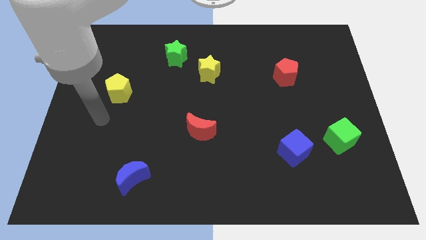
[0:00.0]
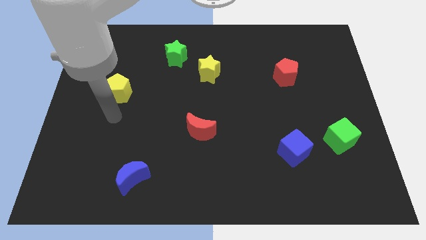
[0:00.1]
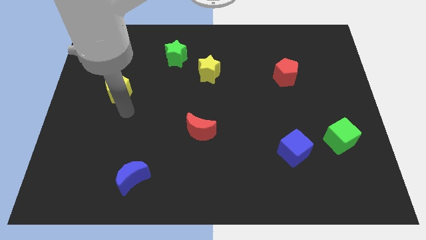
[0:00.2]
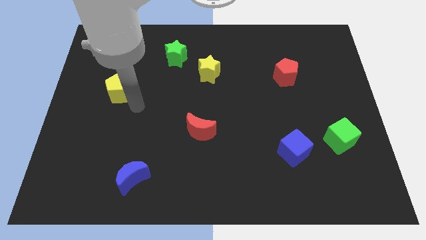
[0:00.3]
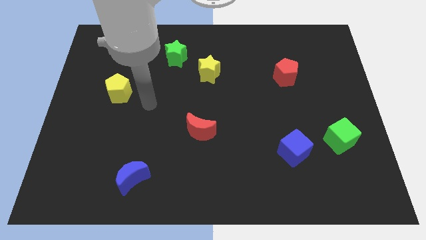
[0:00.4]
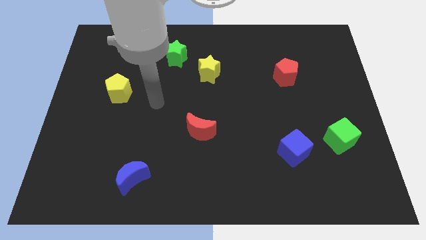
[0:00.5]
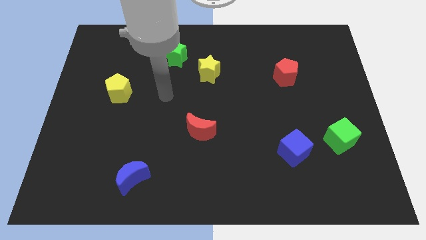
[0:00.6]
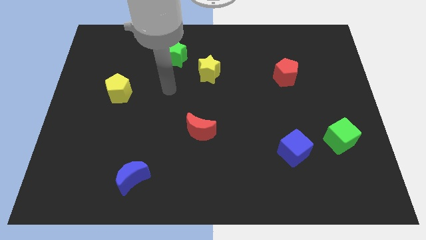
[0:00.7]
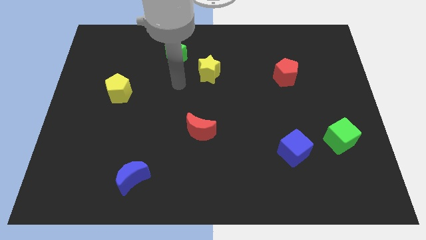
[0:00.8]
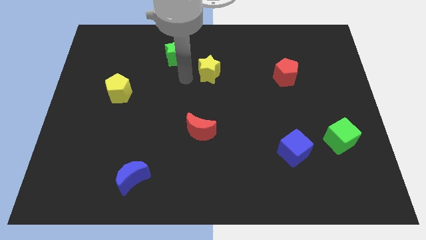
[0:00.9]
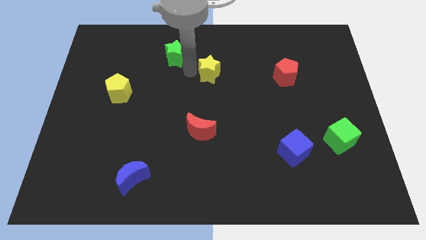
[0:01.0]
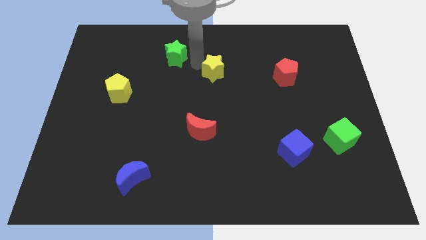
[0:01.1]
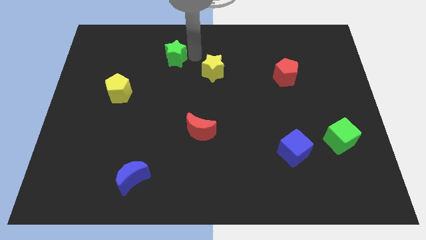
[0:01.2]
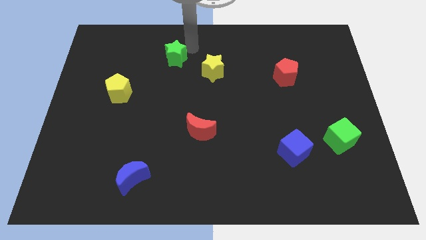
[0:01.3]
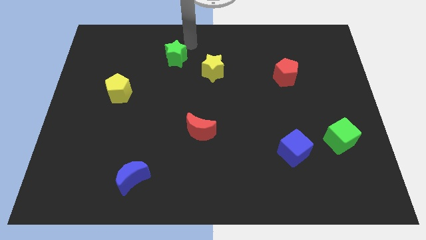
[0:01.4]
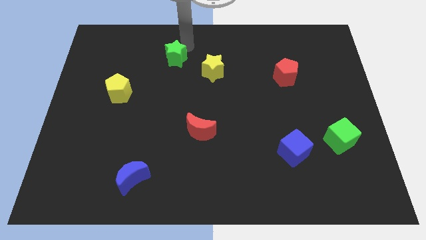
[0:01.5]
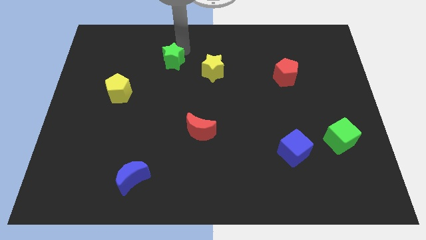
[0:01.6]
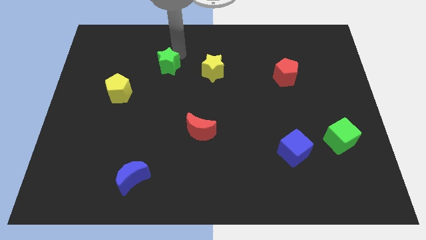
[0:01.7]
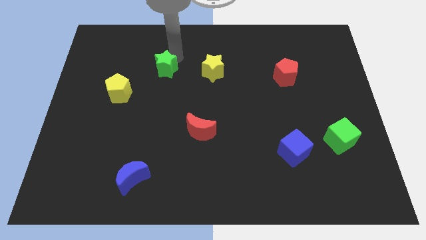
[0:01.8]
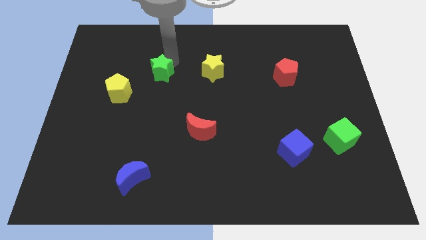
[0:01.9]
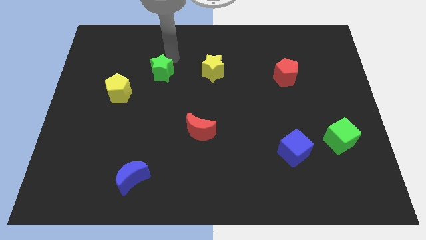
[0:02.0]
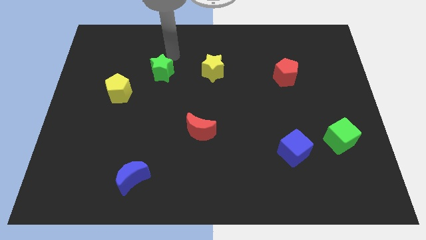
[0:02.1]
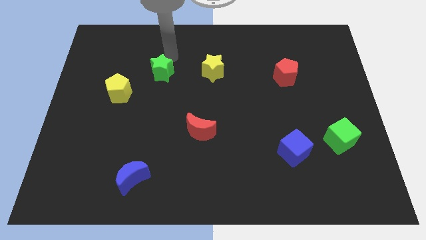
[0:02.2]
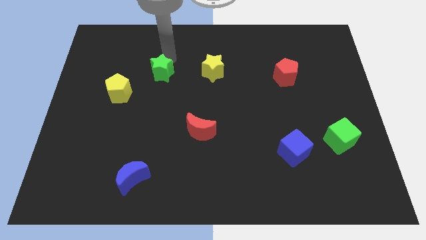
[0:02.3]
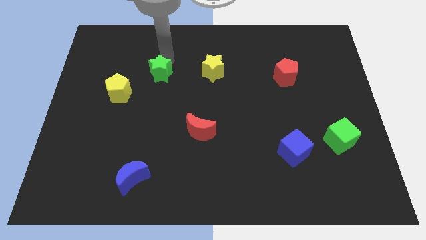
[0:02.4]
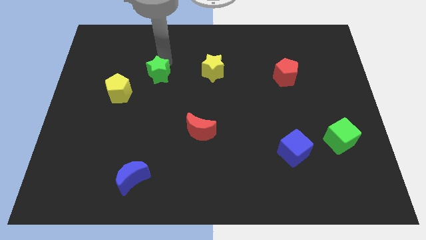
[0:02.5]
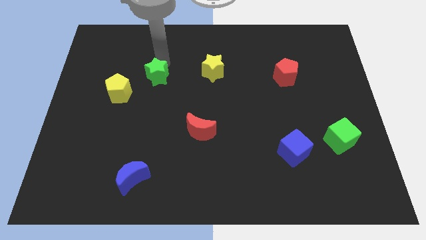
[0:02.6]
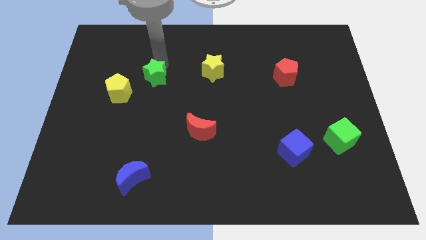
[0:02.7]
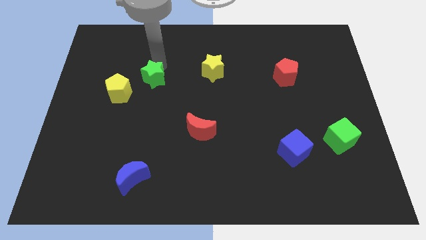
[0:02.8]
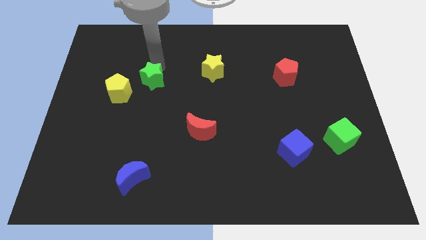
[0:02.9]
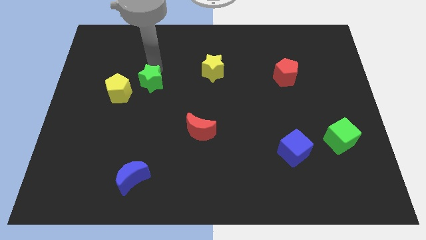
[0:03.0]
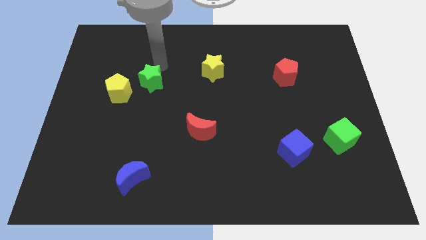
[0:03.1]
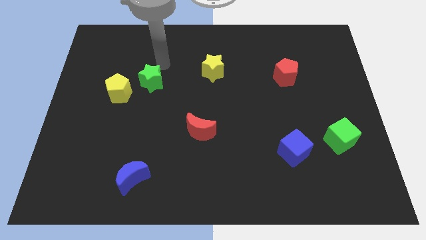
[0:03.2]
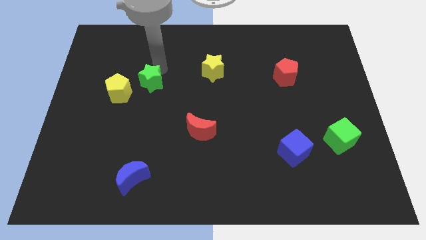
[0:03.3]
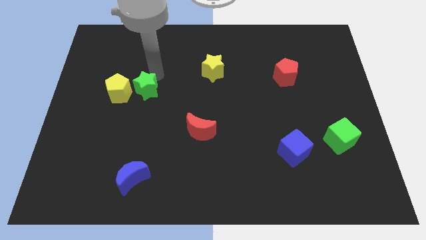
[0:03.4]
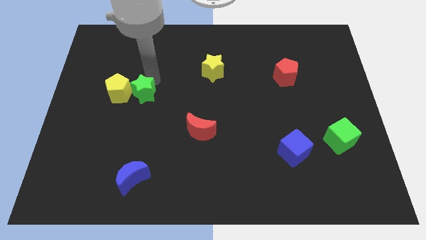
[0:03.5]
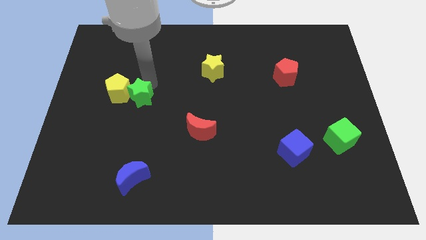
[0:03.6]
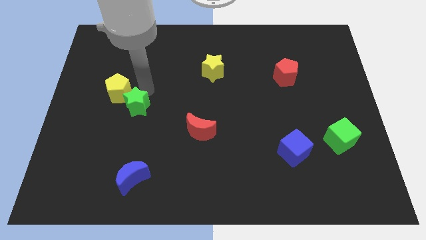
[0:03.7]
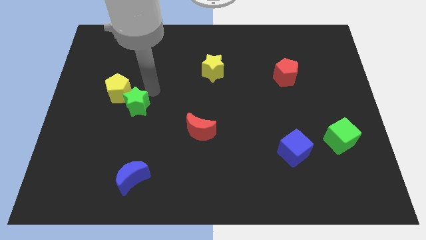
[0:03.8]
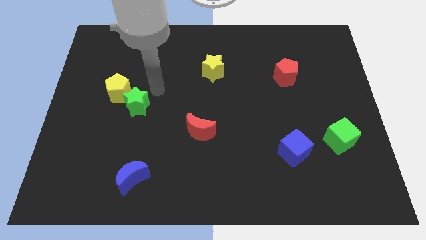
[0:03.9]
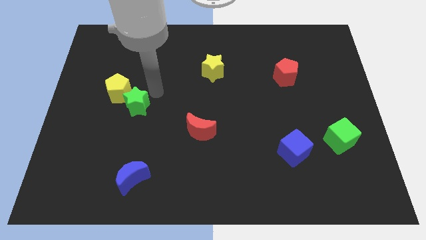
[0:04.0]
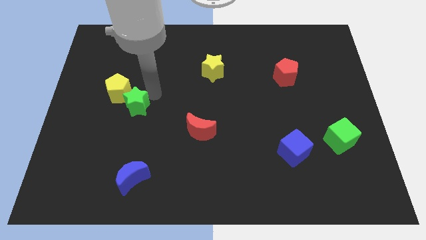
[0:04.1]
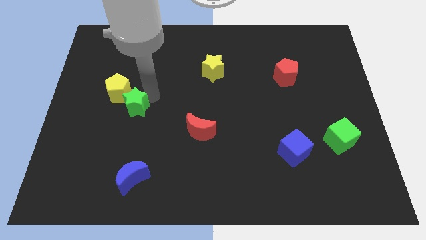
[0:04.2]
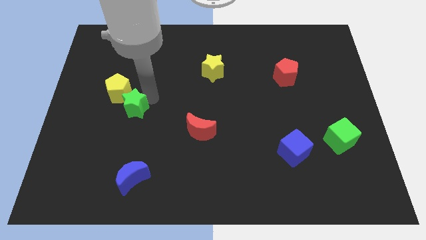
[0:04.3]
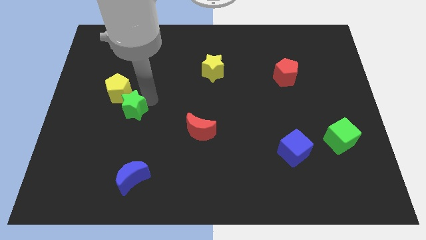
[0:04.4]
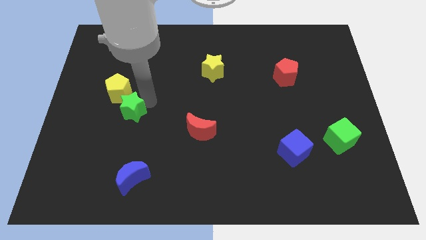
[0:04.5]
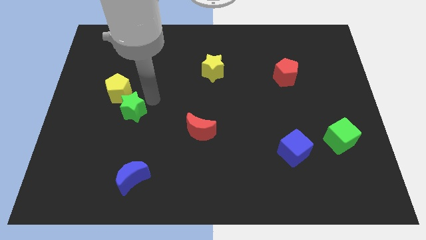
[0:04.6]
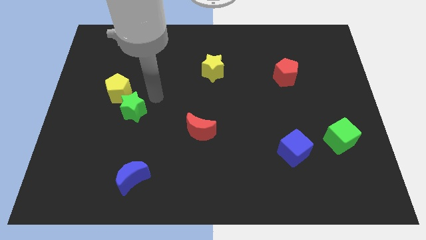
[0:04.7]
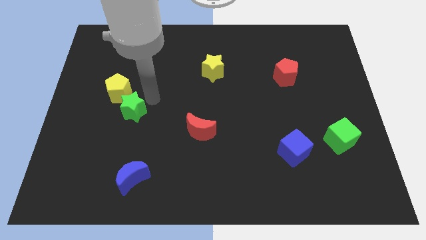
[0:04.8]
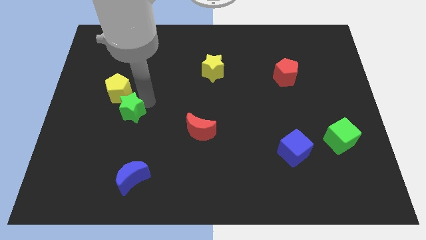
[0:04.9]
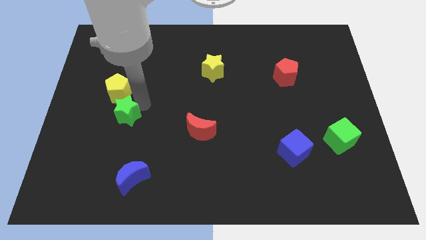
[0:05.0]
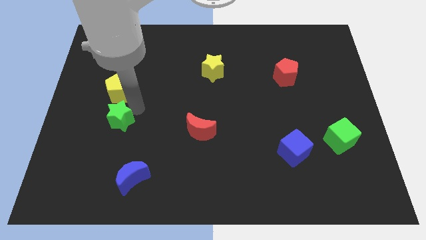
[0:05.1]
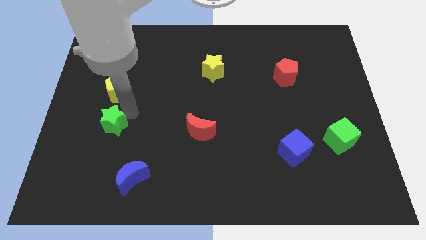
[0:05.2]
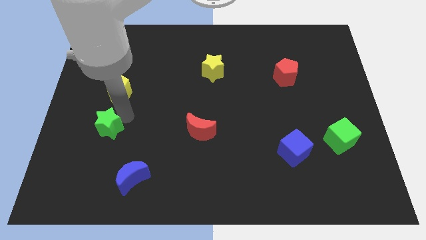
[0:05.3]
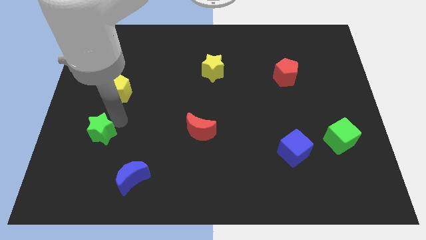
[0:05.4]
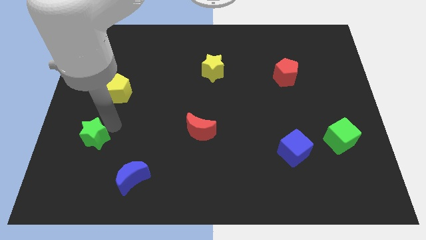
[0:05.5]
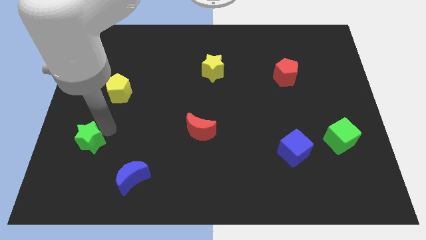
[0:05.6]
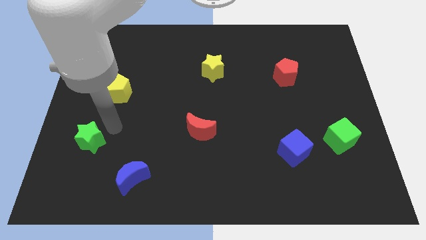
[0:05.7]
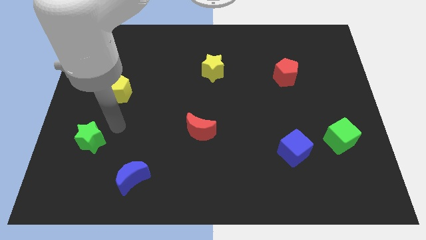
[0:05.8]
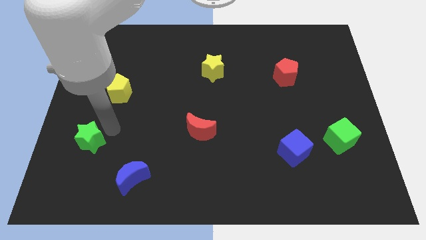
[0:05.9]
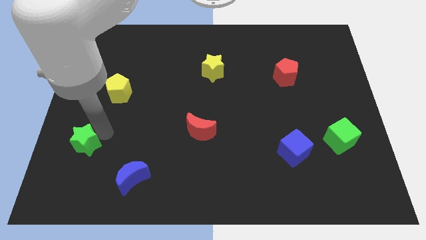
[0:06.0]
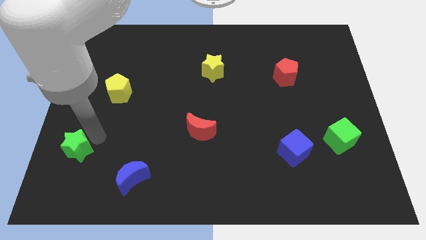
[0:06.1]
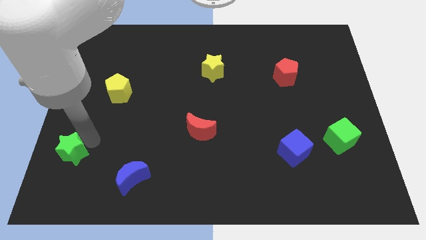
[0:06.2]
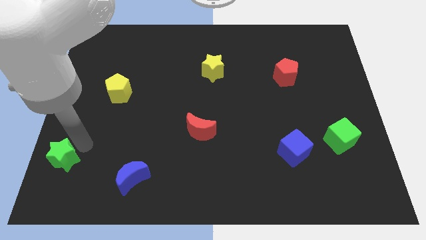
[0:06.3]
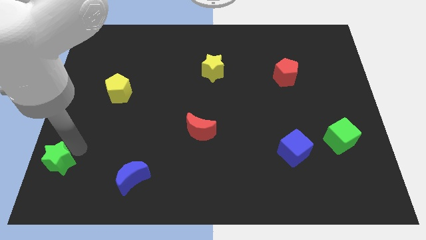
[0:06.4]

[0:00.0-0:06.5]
put the green star to the lower left corner

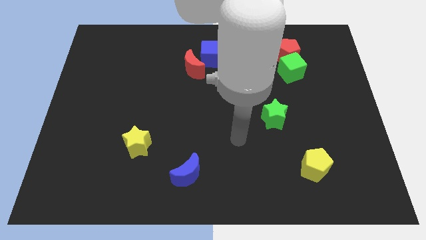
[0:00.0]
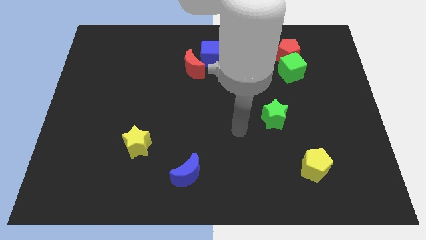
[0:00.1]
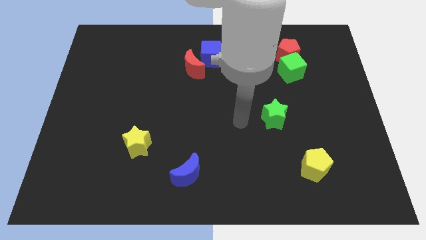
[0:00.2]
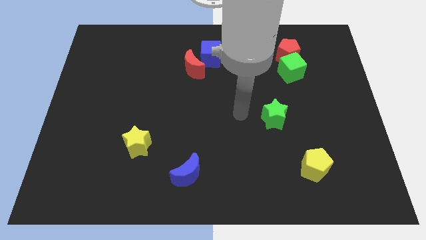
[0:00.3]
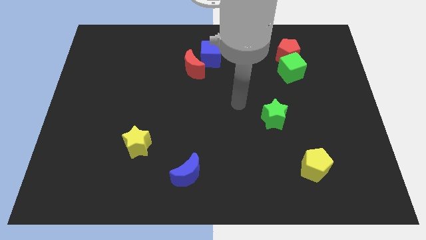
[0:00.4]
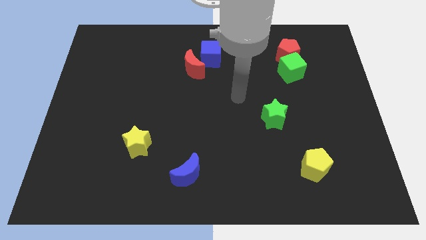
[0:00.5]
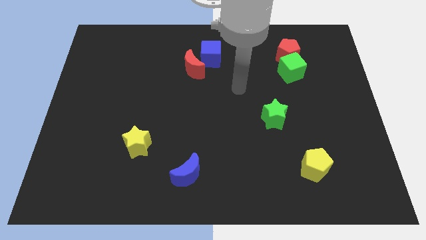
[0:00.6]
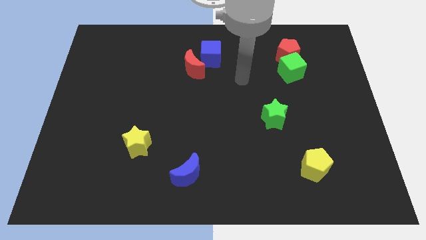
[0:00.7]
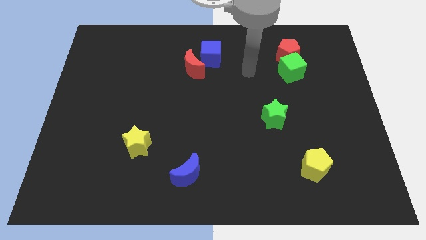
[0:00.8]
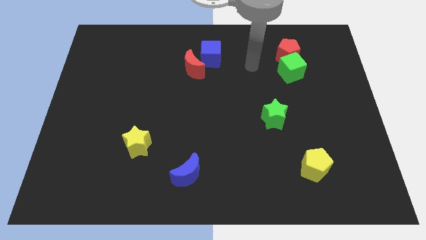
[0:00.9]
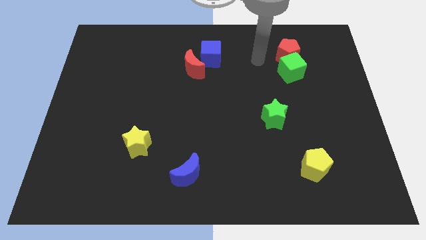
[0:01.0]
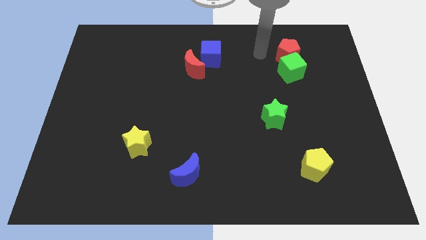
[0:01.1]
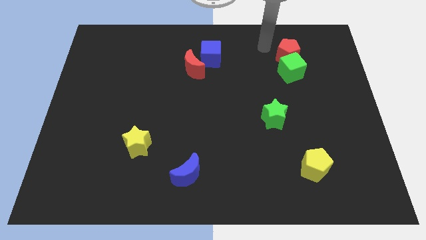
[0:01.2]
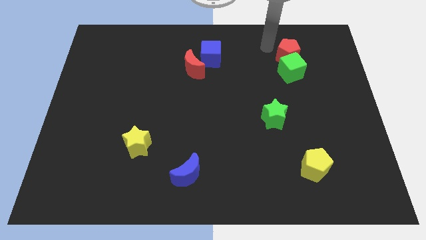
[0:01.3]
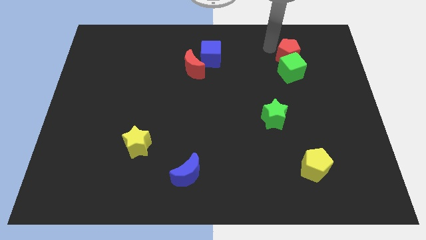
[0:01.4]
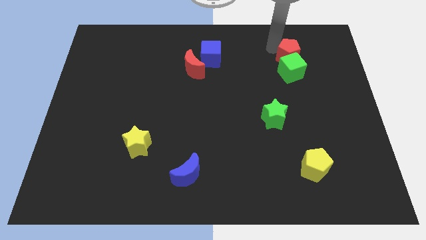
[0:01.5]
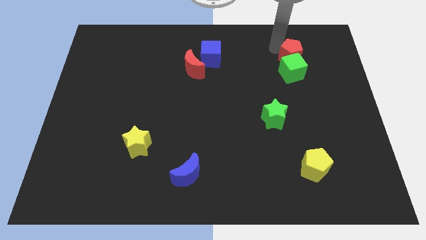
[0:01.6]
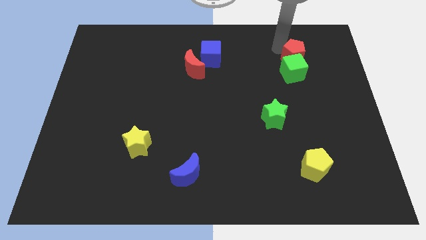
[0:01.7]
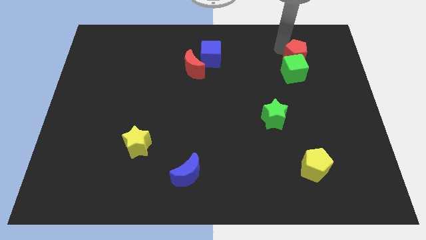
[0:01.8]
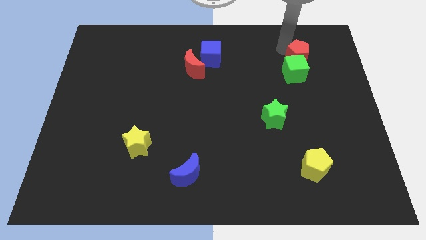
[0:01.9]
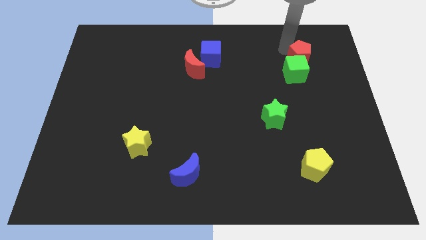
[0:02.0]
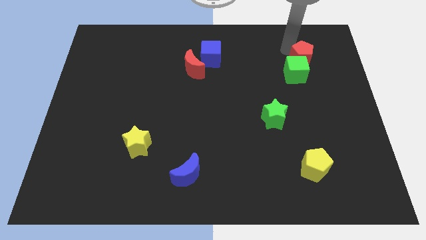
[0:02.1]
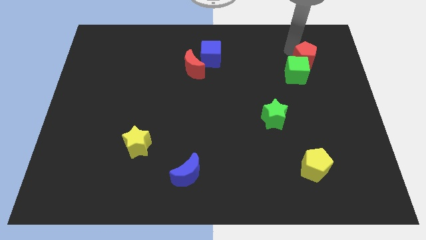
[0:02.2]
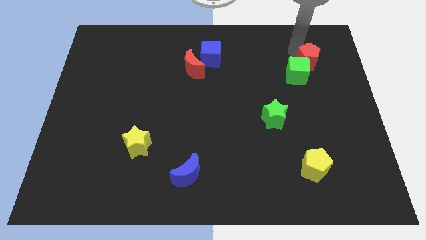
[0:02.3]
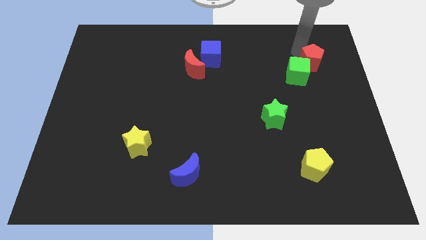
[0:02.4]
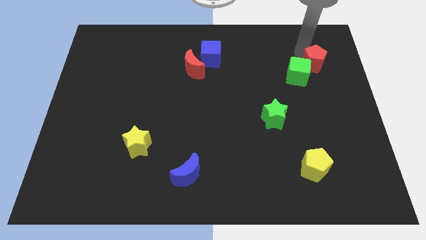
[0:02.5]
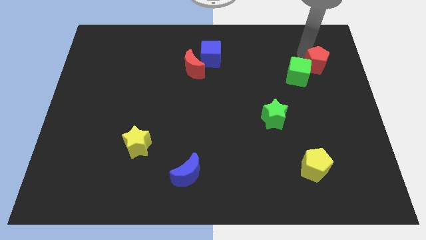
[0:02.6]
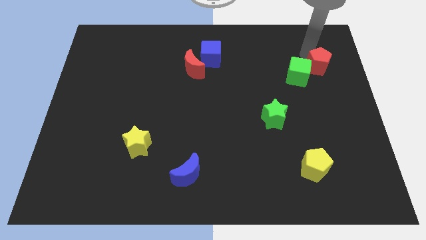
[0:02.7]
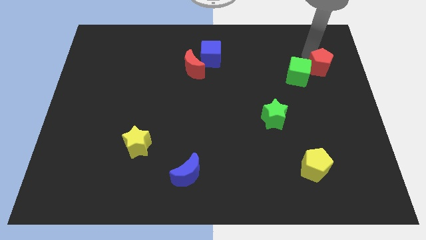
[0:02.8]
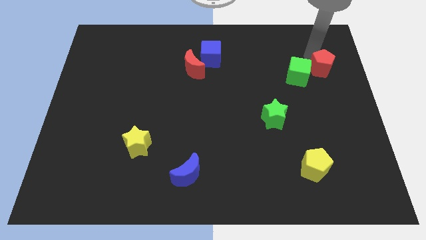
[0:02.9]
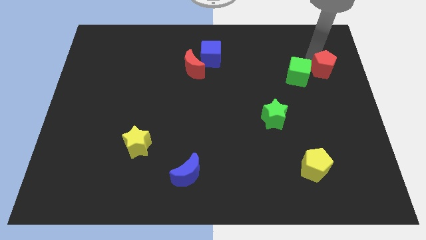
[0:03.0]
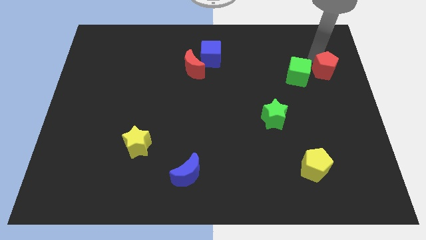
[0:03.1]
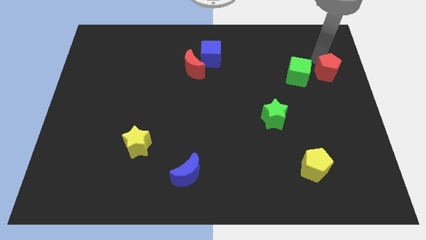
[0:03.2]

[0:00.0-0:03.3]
push the red pentagon to the center right
